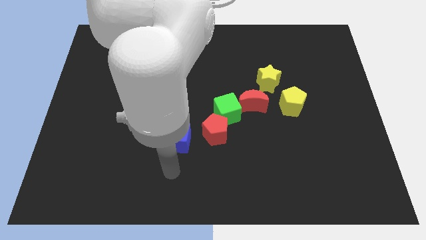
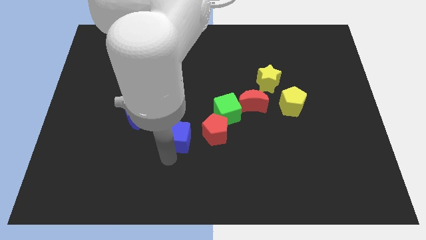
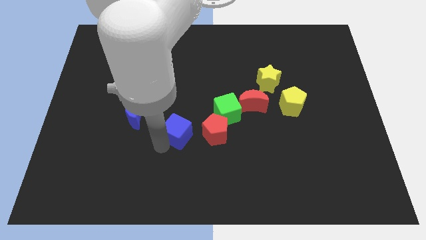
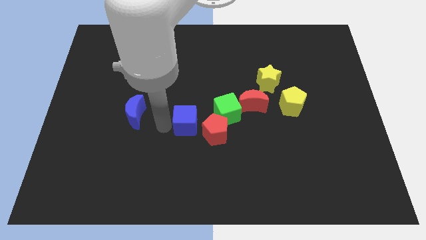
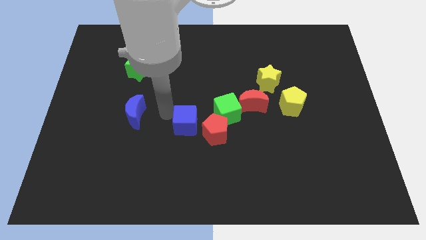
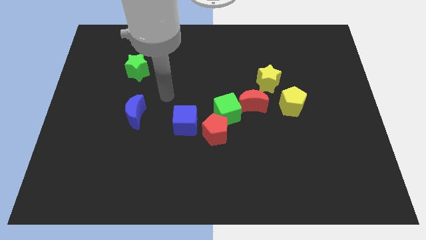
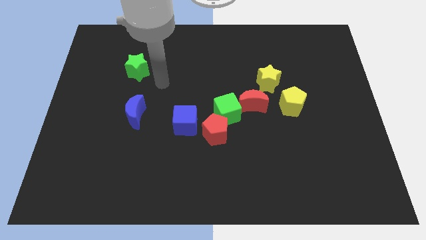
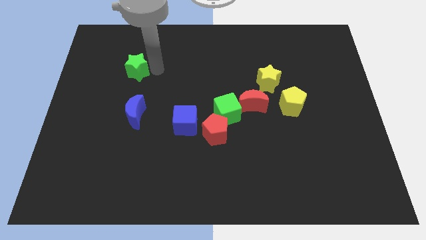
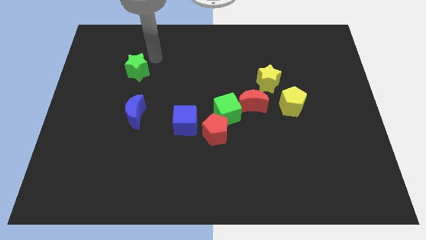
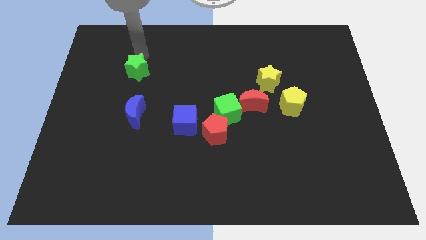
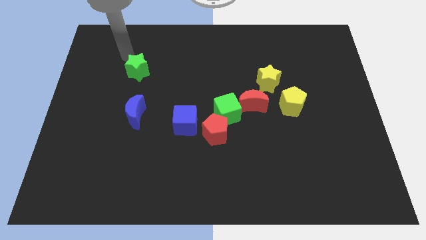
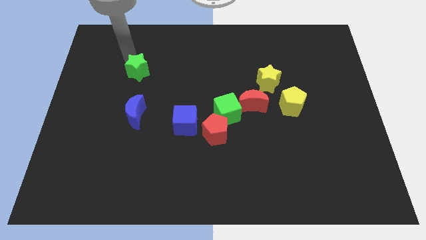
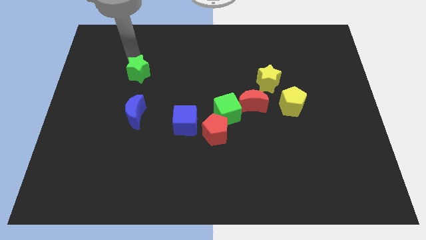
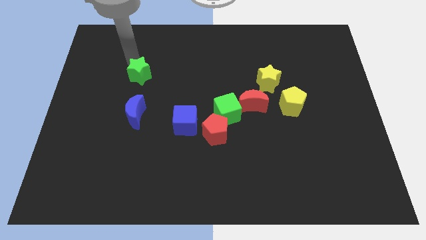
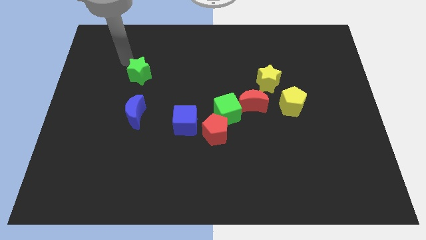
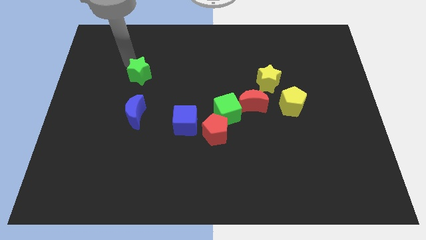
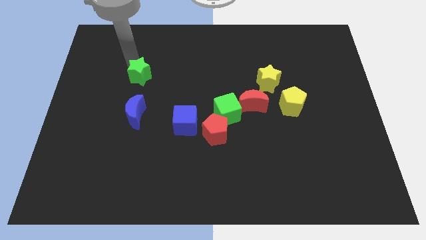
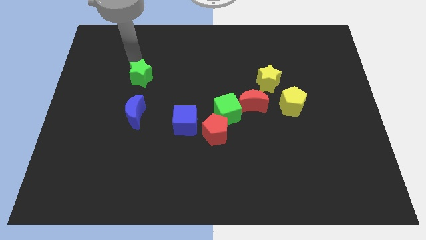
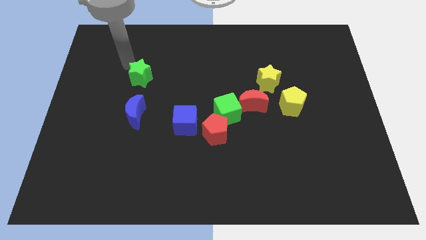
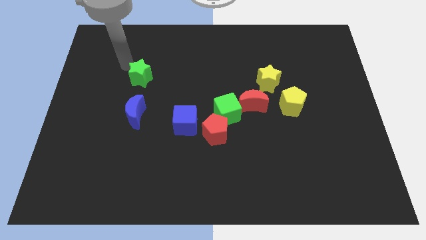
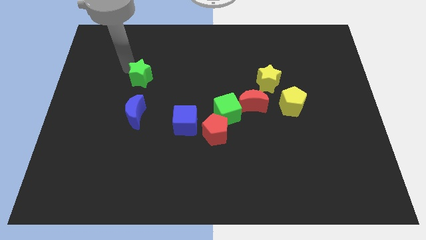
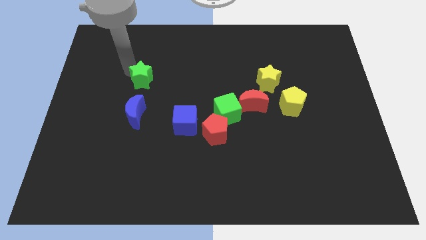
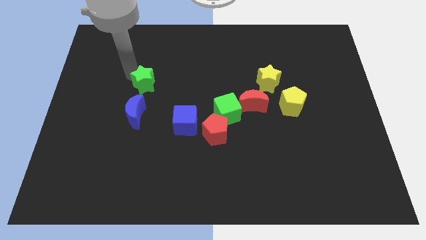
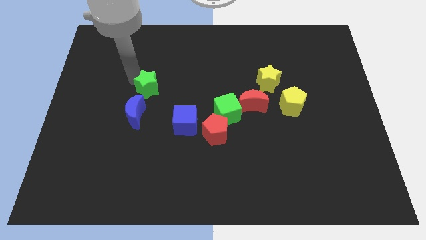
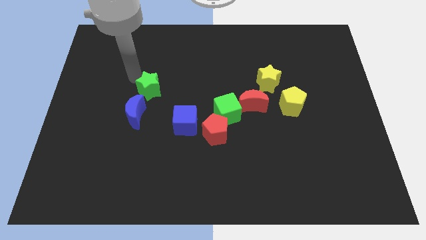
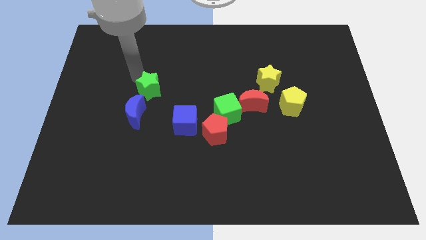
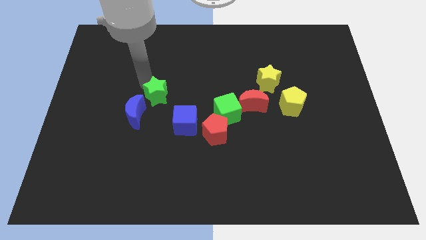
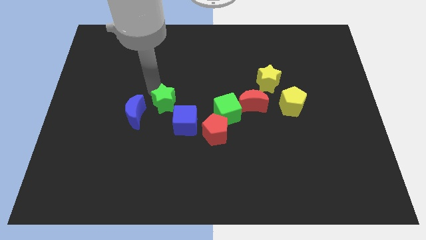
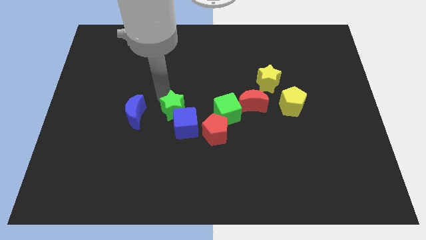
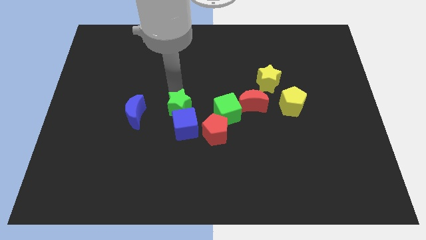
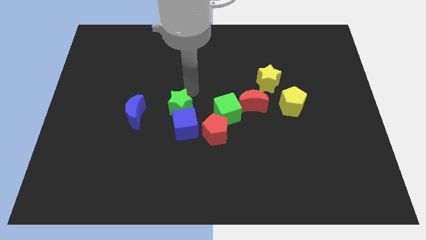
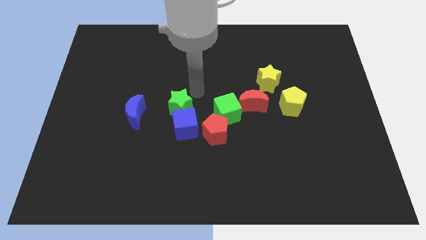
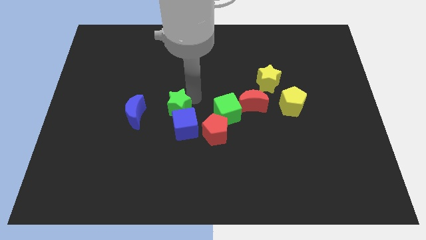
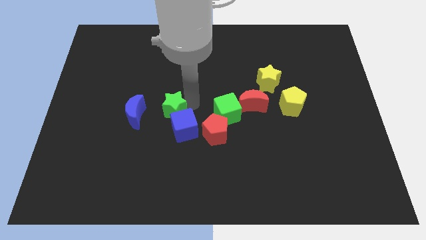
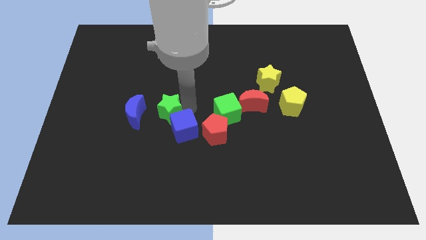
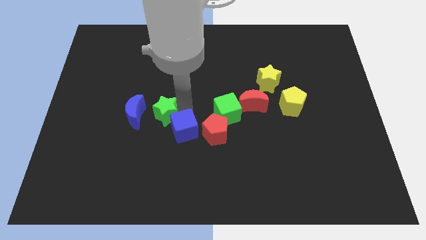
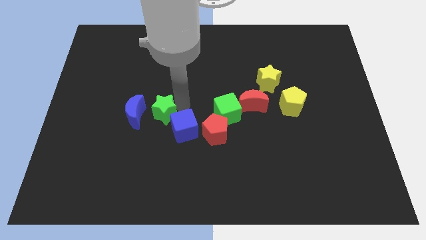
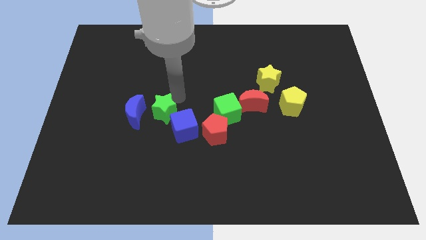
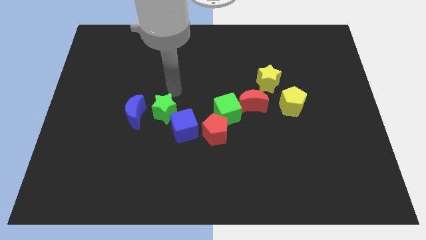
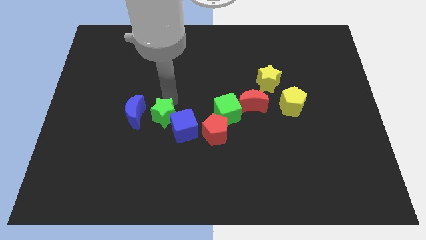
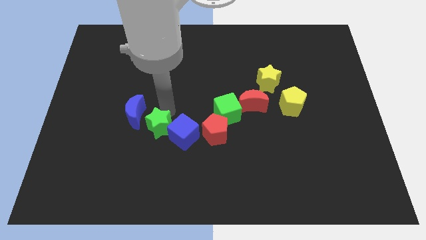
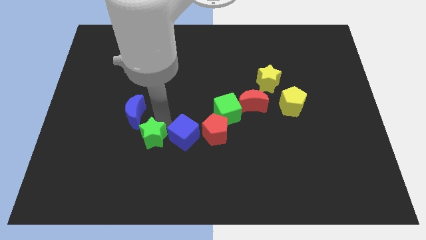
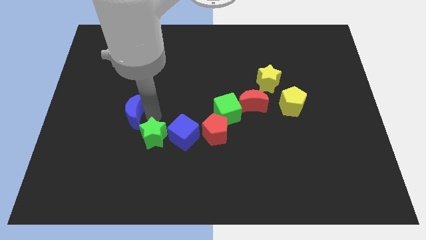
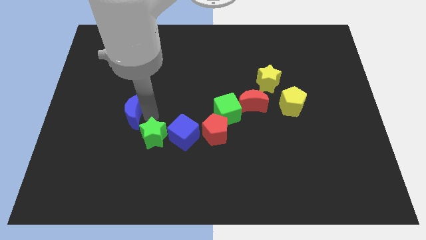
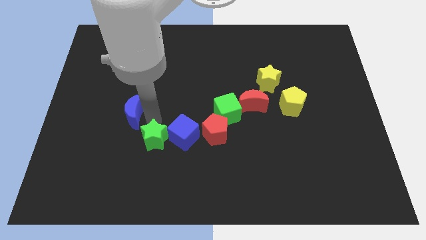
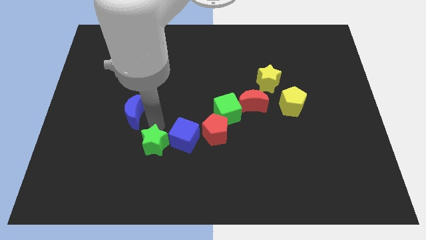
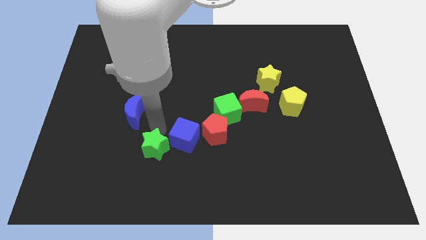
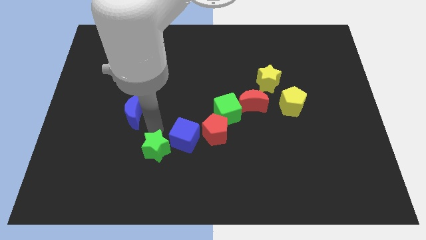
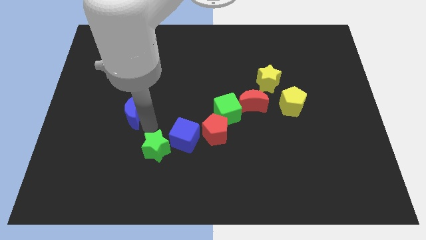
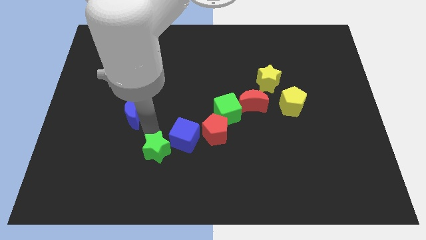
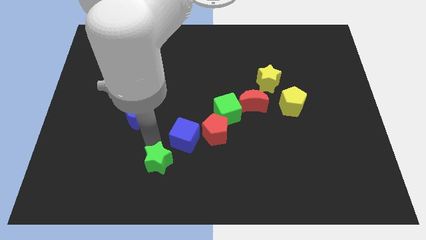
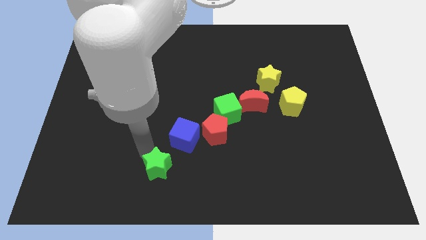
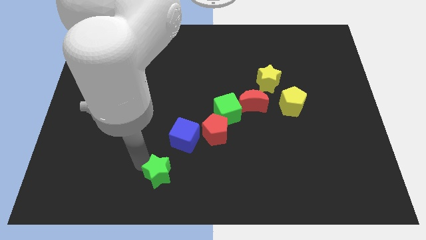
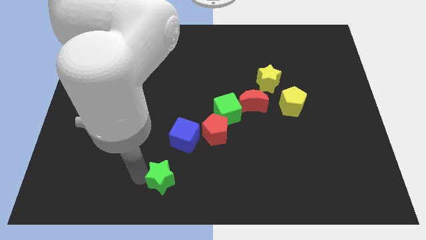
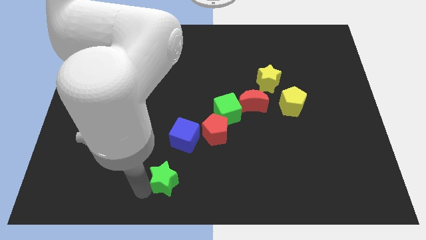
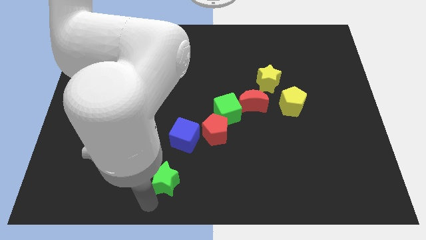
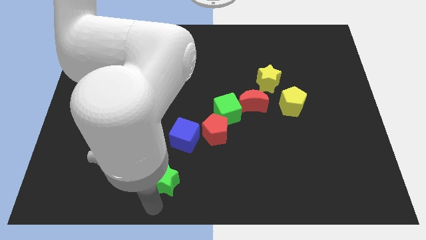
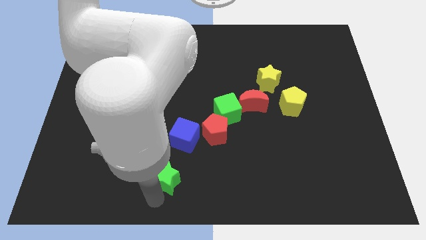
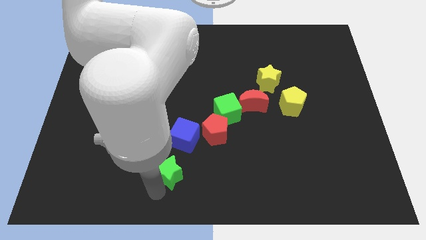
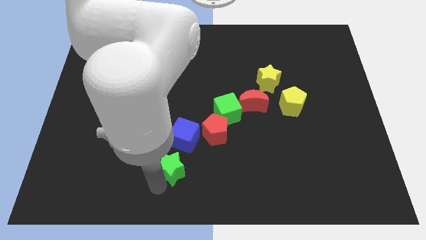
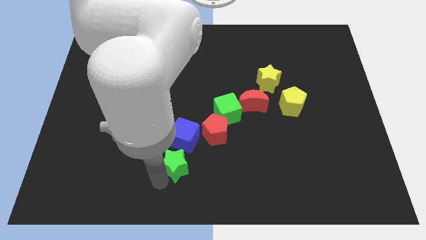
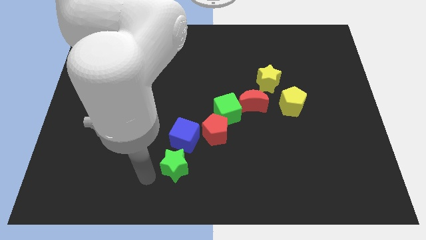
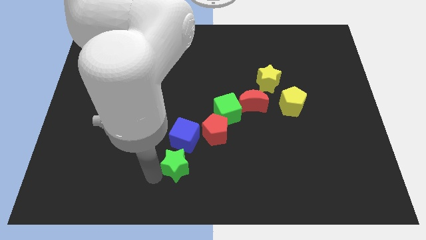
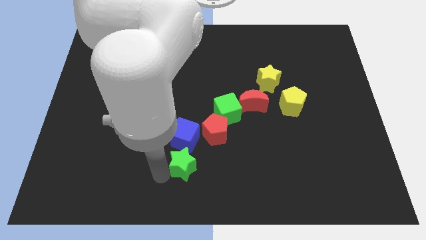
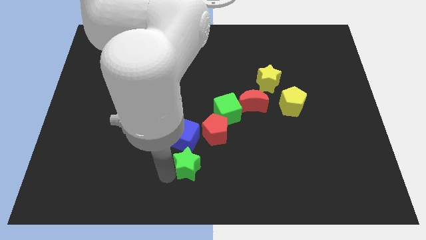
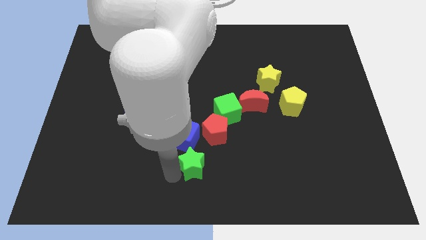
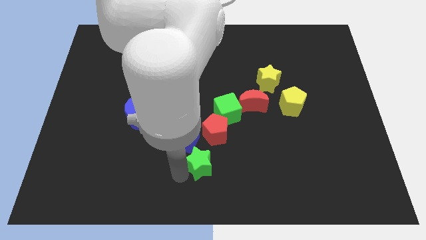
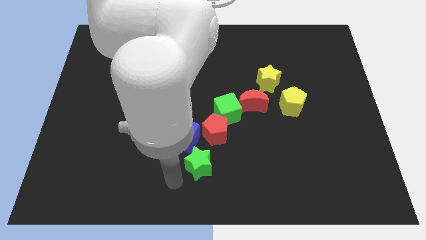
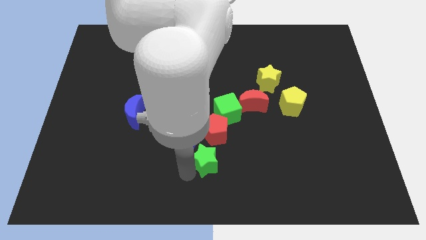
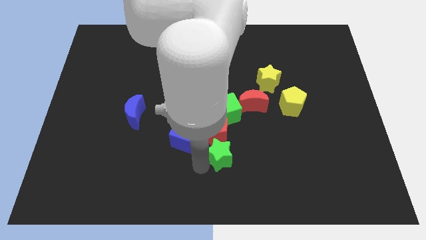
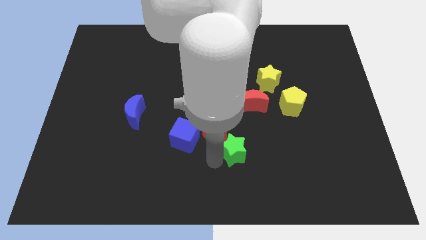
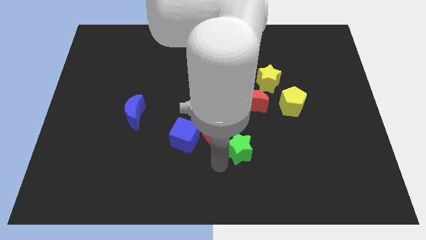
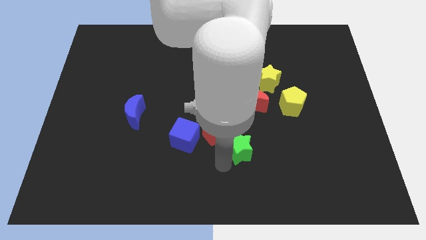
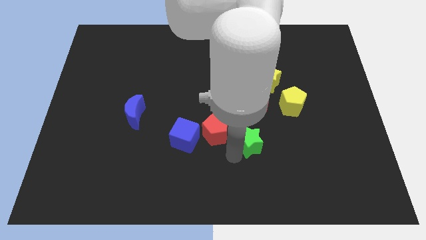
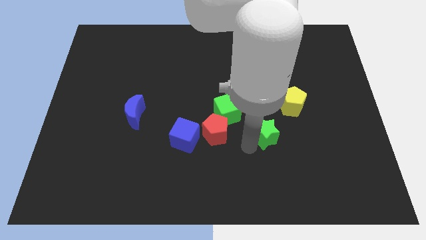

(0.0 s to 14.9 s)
slide the green star below the yellow star
